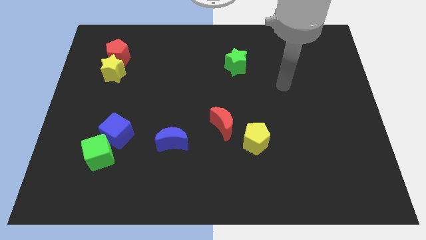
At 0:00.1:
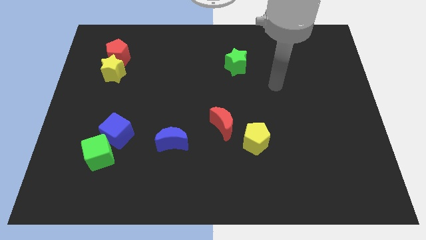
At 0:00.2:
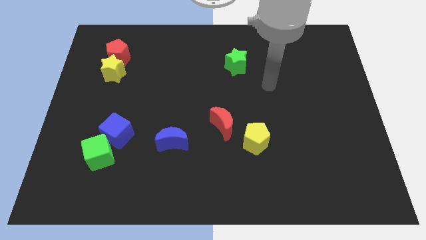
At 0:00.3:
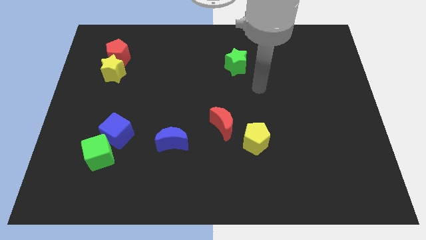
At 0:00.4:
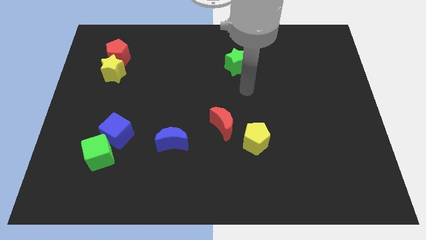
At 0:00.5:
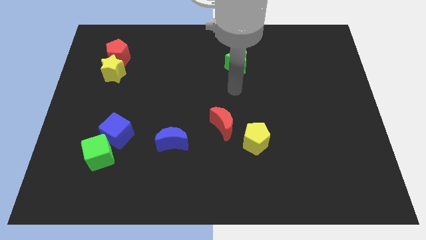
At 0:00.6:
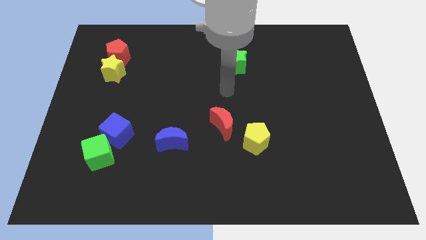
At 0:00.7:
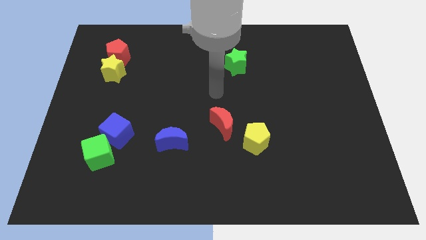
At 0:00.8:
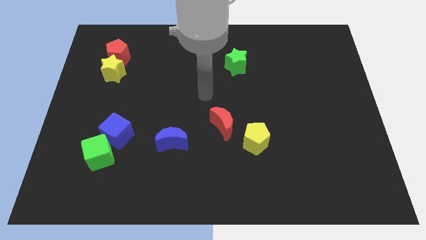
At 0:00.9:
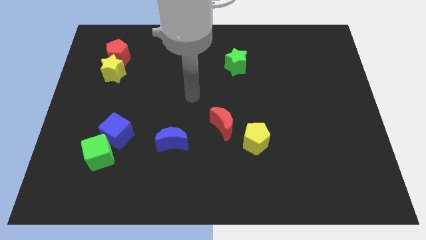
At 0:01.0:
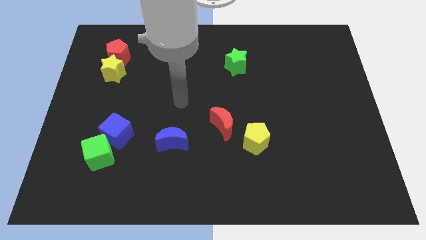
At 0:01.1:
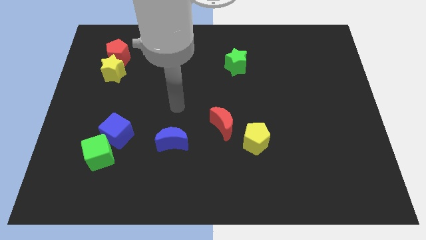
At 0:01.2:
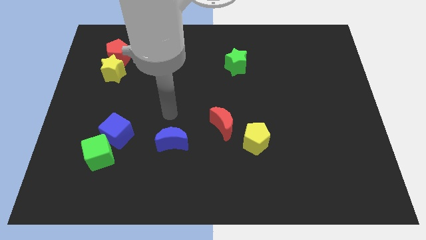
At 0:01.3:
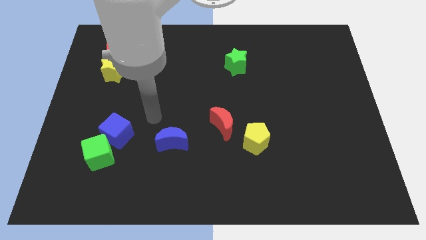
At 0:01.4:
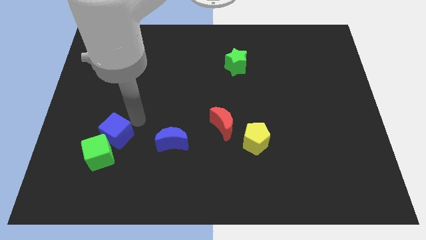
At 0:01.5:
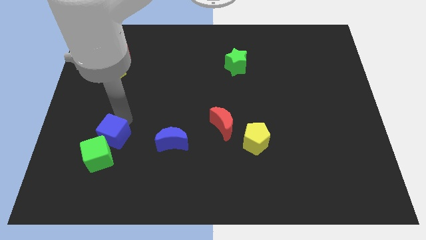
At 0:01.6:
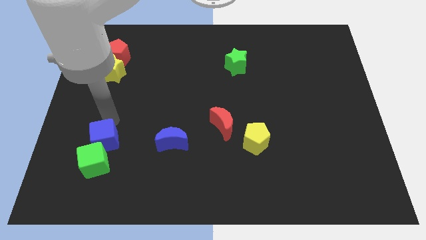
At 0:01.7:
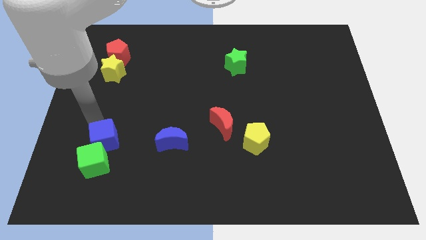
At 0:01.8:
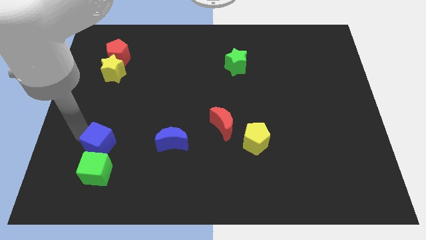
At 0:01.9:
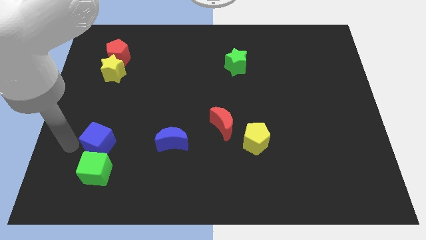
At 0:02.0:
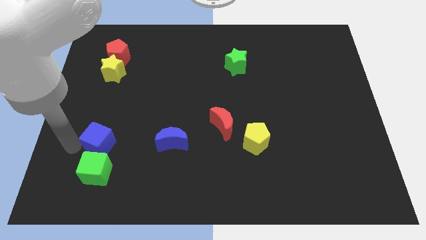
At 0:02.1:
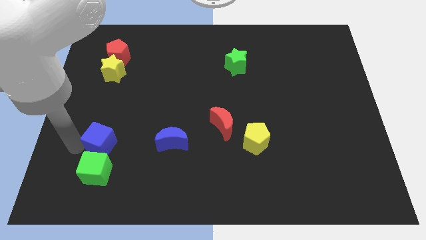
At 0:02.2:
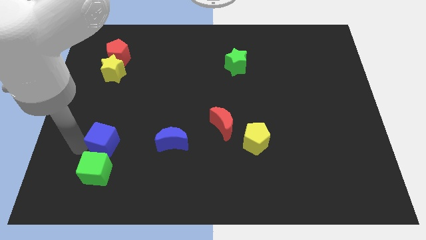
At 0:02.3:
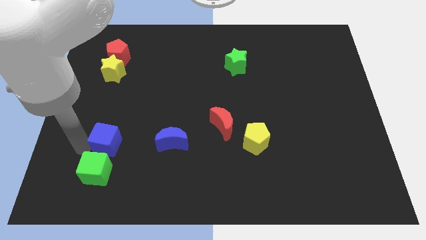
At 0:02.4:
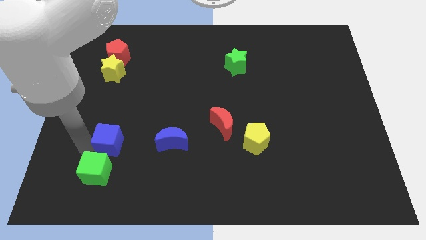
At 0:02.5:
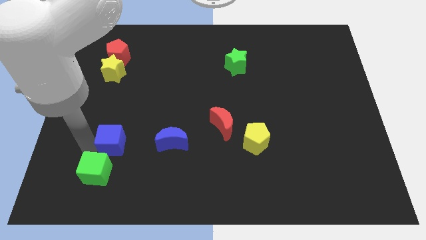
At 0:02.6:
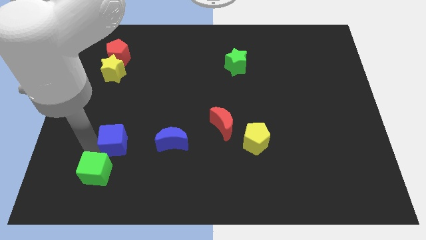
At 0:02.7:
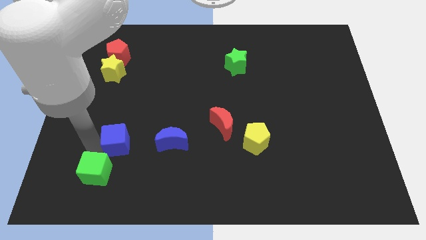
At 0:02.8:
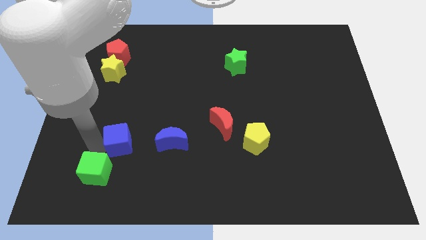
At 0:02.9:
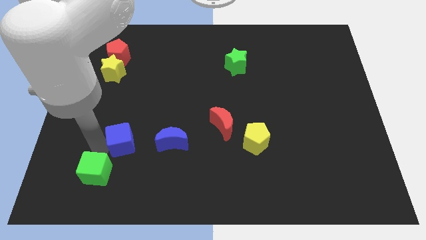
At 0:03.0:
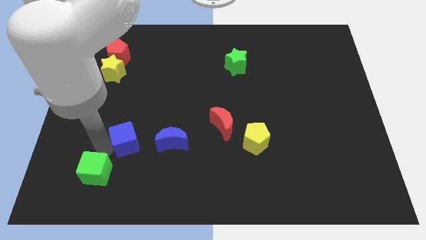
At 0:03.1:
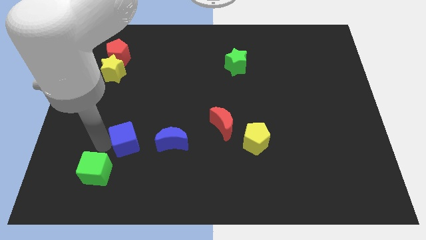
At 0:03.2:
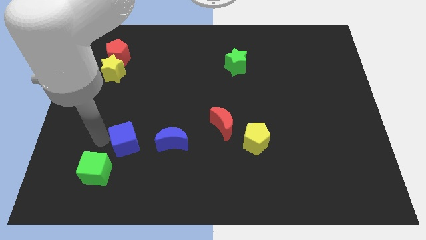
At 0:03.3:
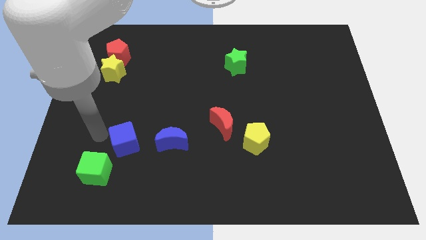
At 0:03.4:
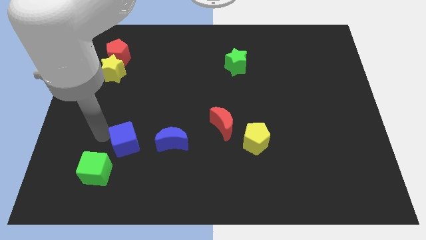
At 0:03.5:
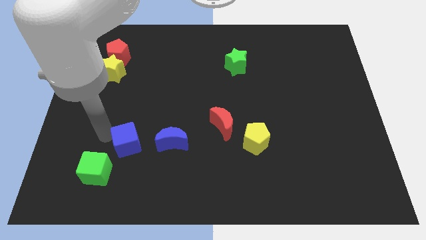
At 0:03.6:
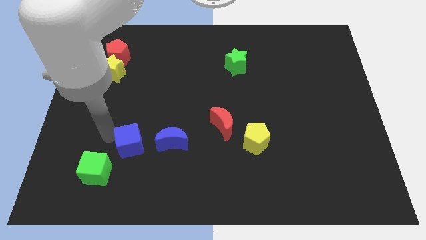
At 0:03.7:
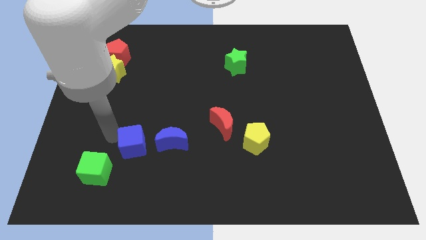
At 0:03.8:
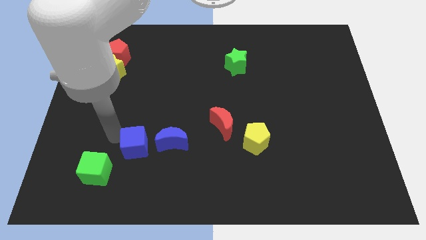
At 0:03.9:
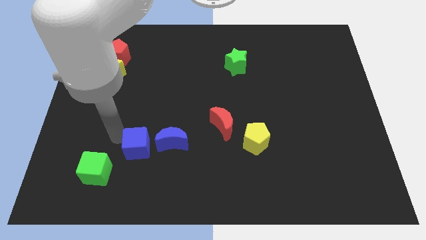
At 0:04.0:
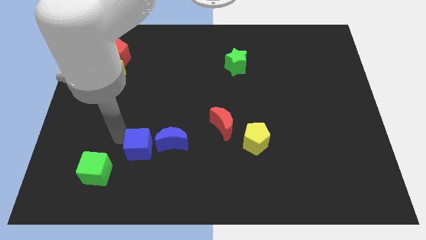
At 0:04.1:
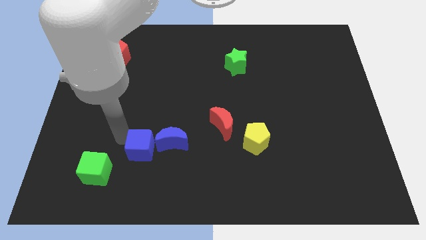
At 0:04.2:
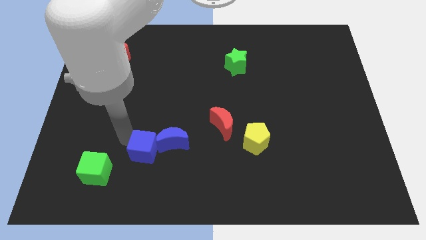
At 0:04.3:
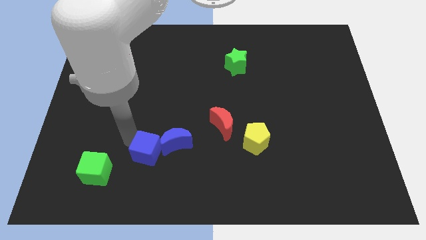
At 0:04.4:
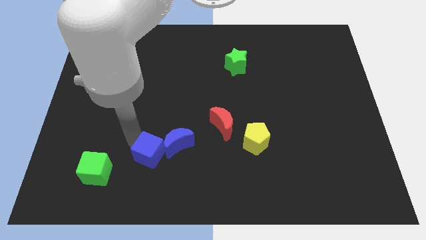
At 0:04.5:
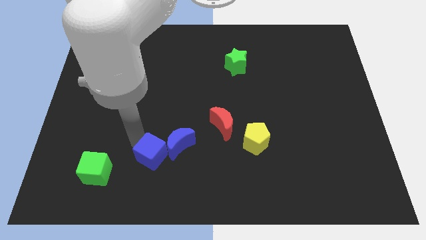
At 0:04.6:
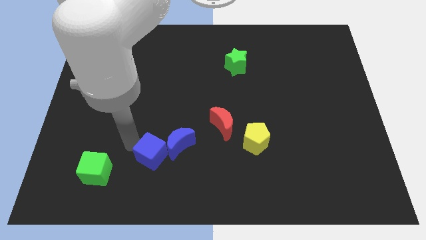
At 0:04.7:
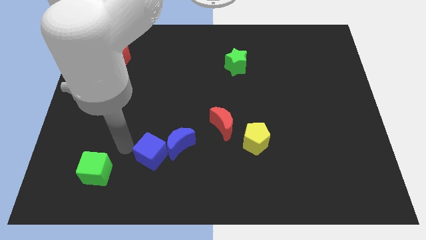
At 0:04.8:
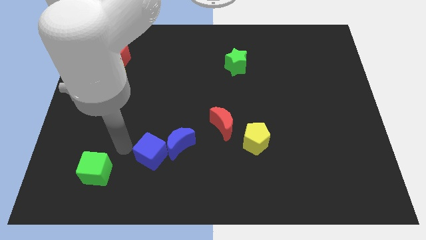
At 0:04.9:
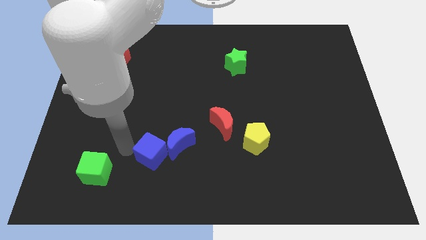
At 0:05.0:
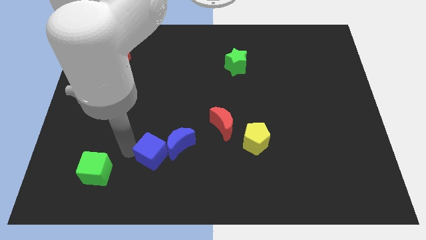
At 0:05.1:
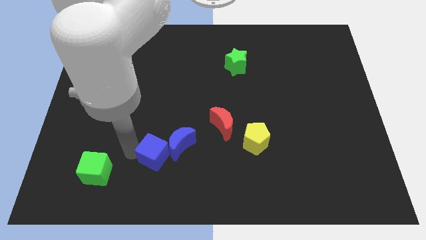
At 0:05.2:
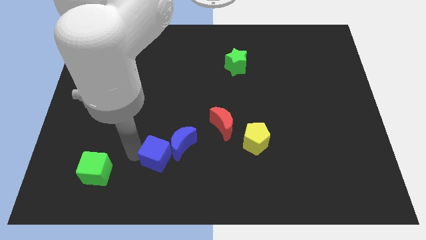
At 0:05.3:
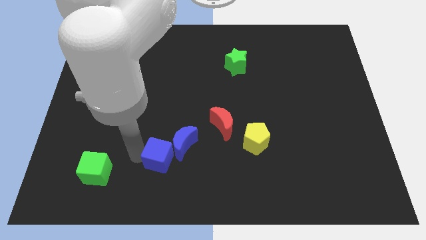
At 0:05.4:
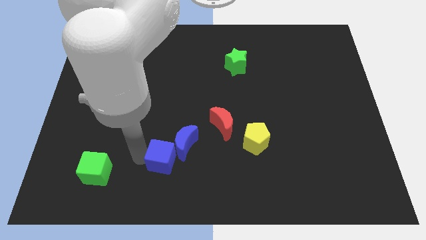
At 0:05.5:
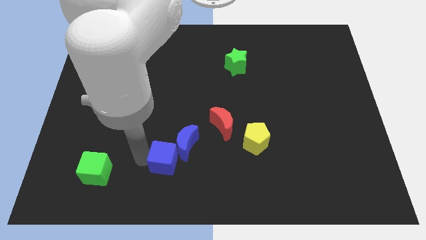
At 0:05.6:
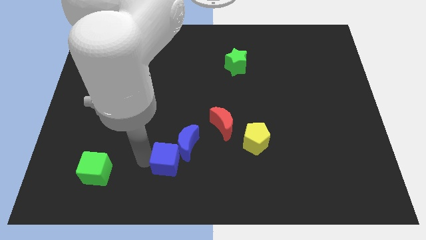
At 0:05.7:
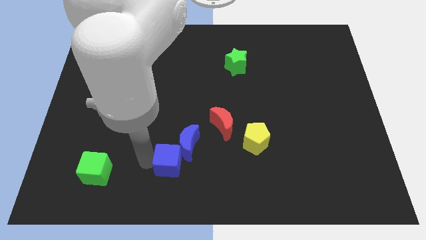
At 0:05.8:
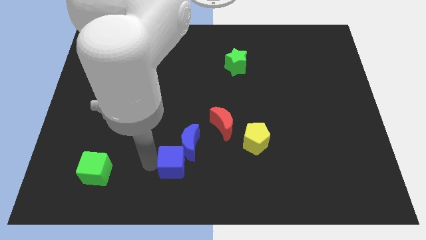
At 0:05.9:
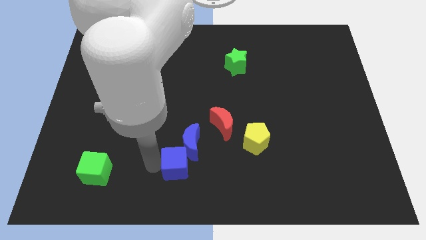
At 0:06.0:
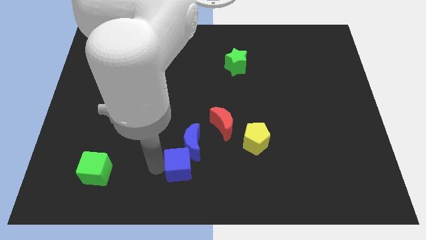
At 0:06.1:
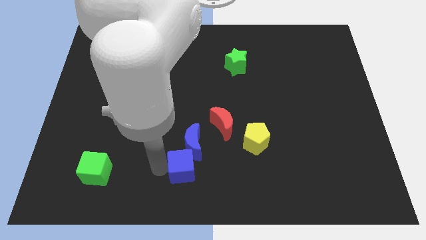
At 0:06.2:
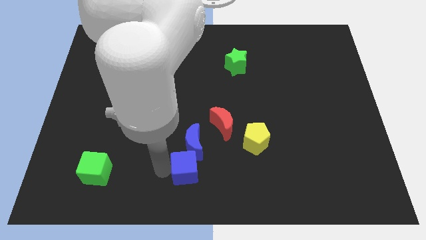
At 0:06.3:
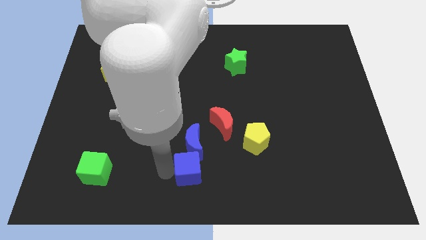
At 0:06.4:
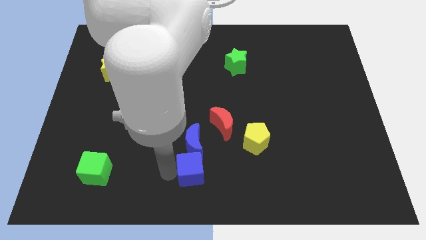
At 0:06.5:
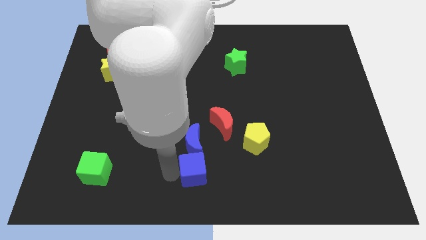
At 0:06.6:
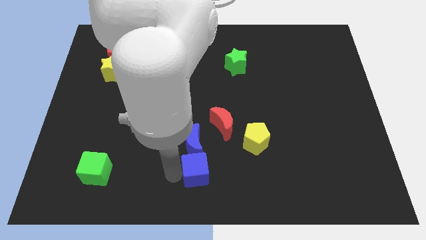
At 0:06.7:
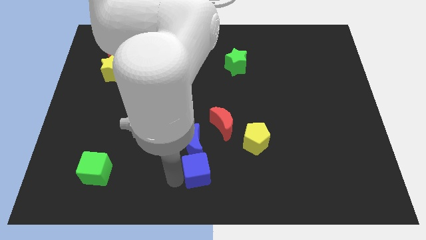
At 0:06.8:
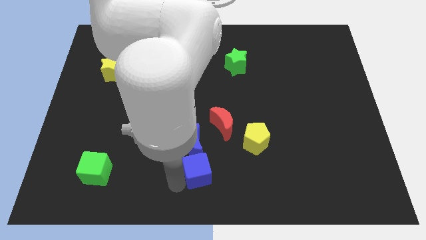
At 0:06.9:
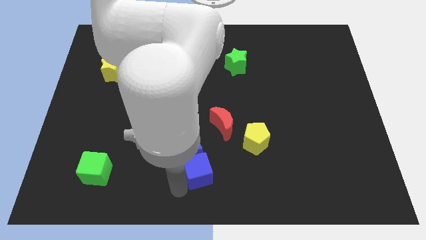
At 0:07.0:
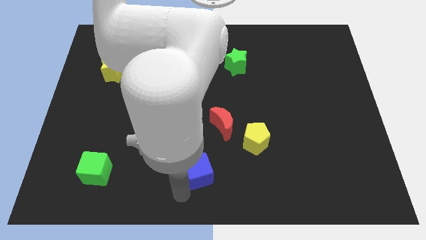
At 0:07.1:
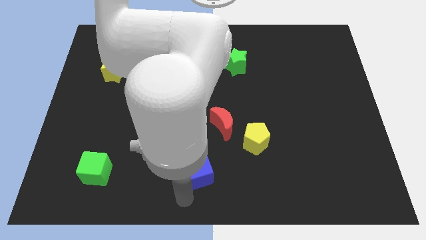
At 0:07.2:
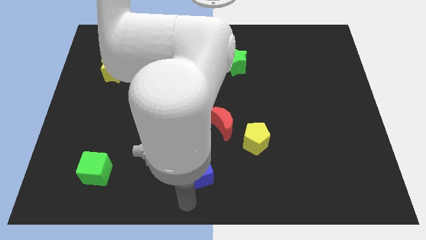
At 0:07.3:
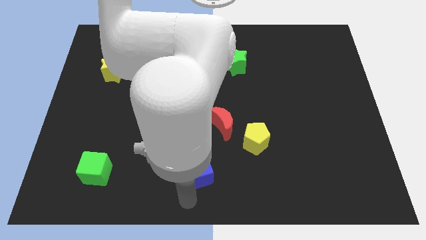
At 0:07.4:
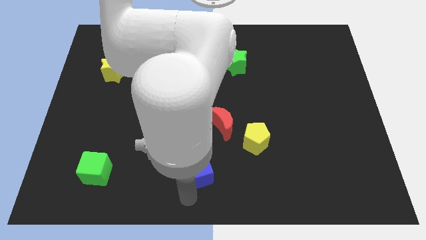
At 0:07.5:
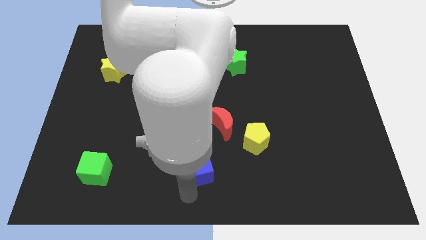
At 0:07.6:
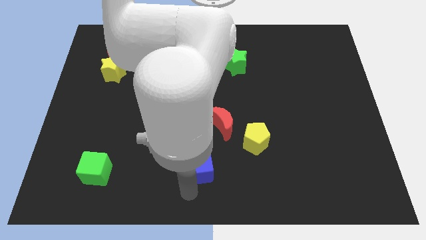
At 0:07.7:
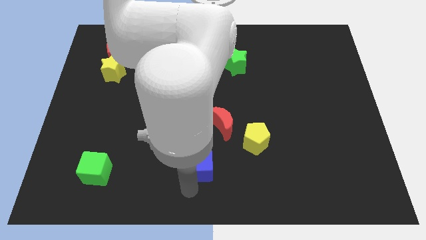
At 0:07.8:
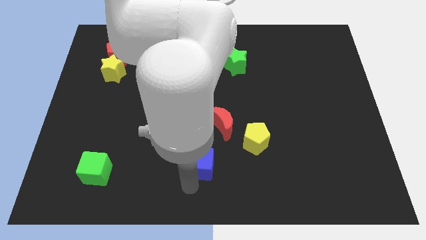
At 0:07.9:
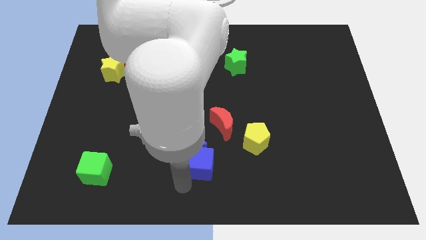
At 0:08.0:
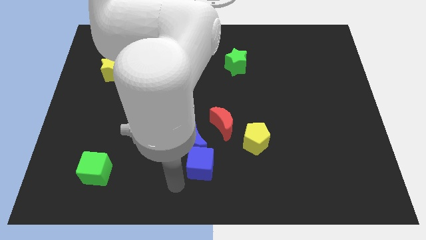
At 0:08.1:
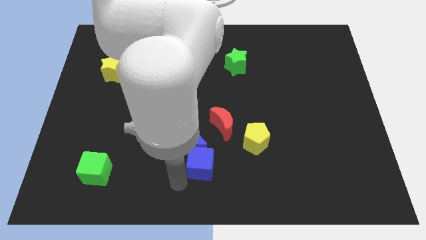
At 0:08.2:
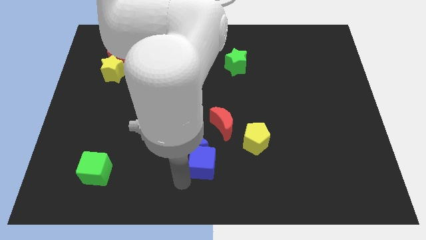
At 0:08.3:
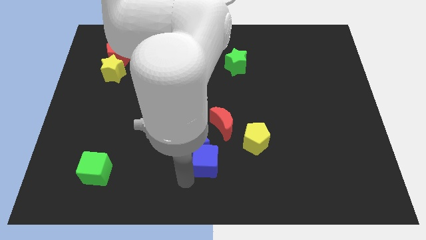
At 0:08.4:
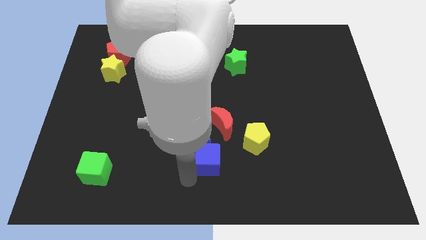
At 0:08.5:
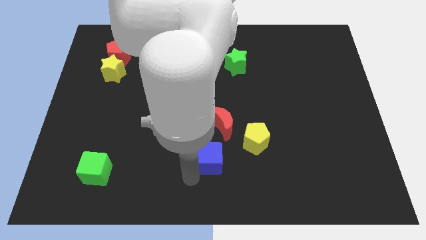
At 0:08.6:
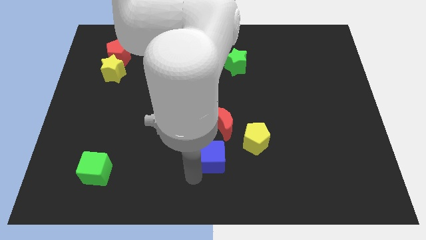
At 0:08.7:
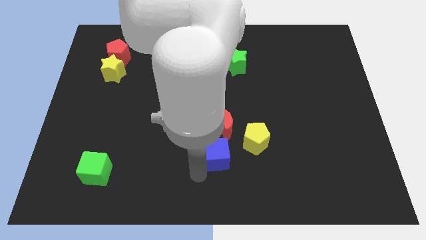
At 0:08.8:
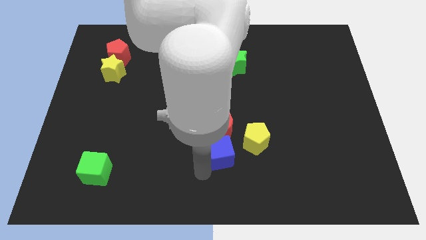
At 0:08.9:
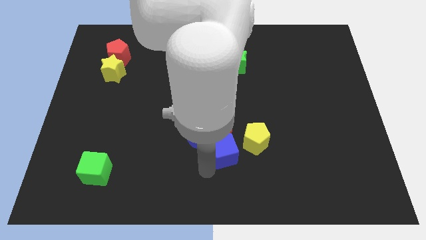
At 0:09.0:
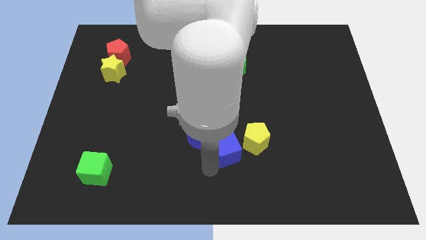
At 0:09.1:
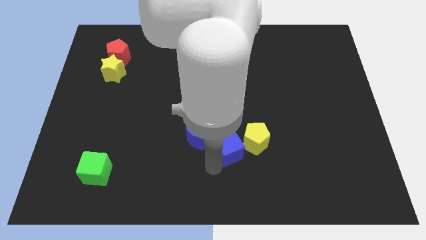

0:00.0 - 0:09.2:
push the blue cube towards the yellow pentagon
